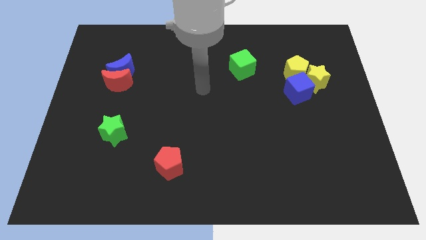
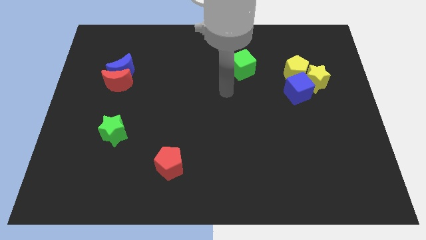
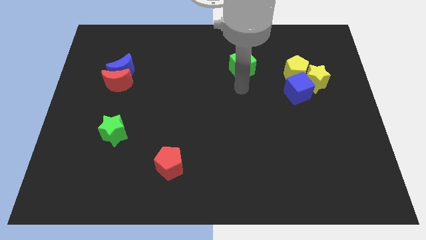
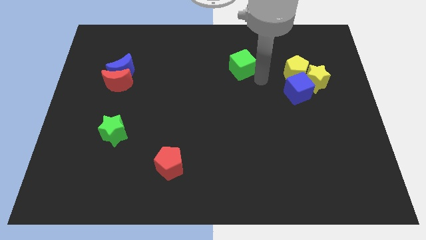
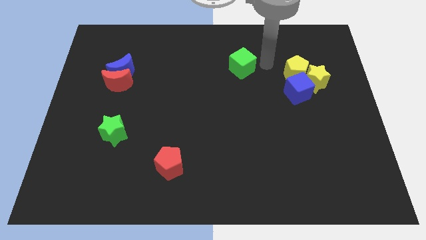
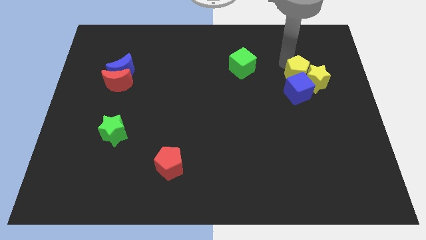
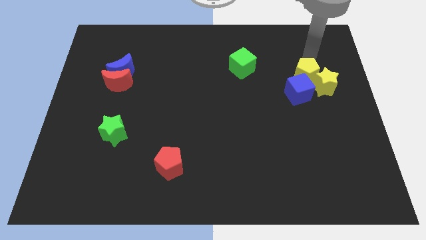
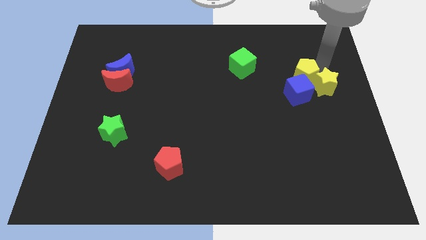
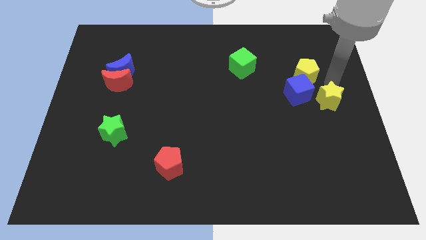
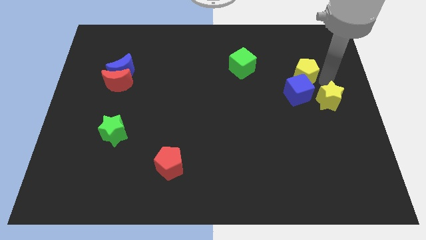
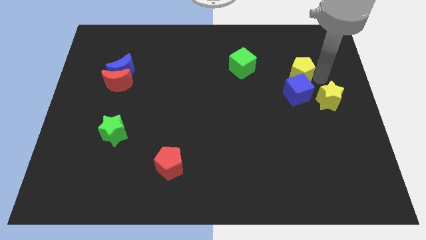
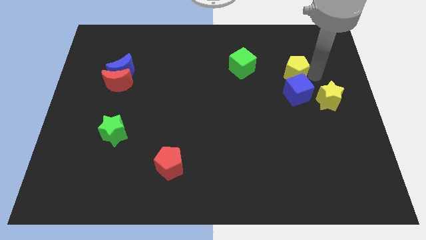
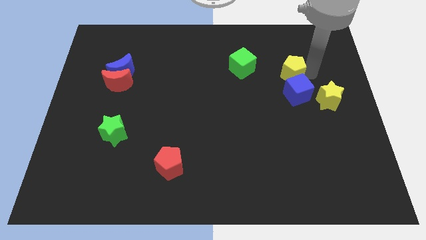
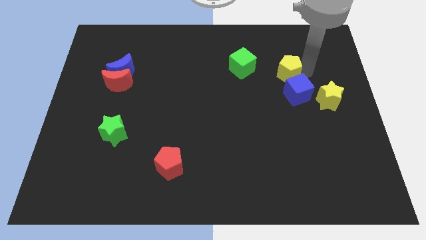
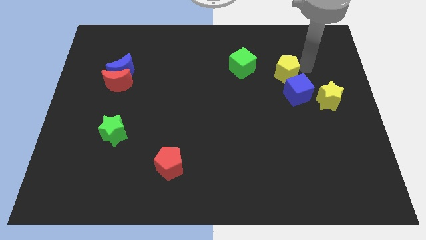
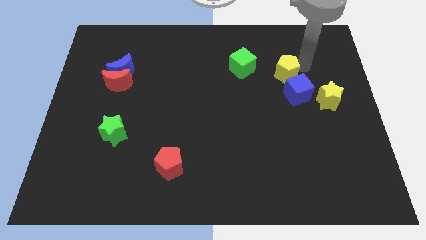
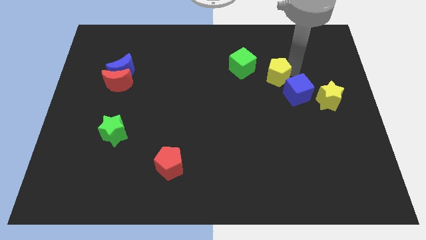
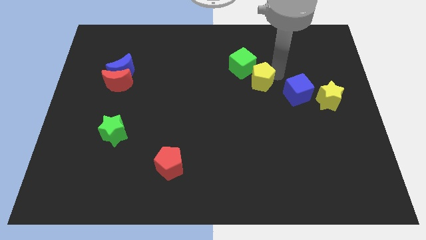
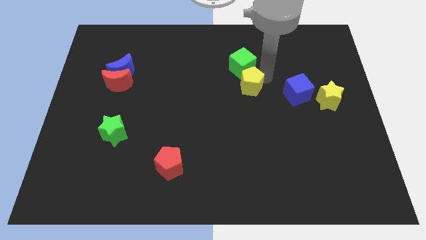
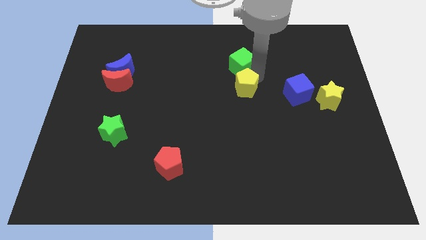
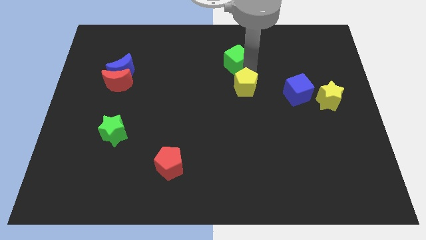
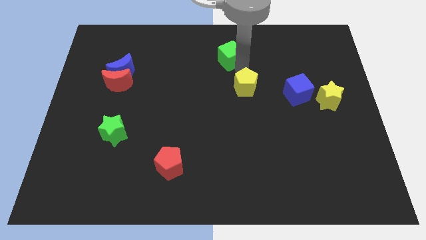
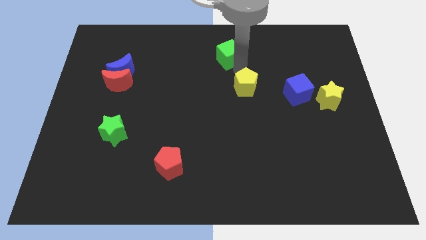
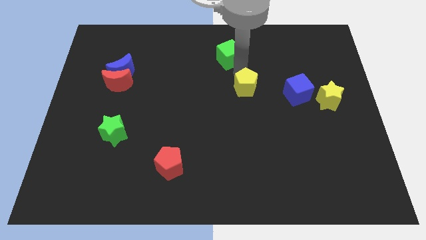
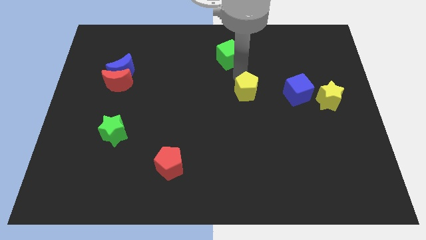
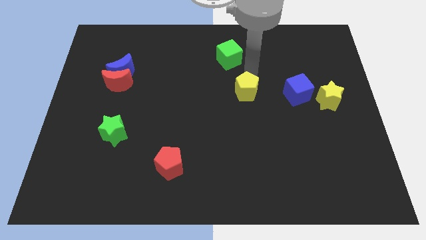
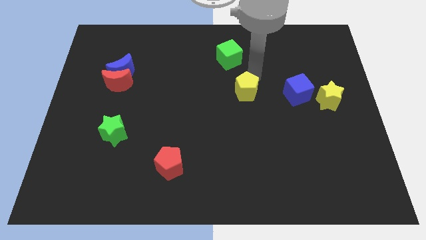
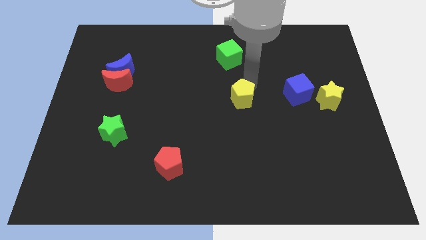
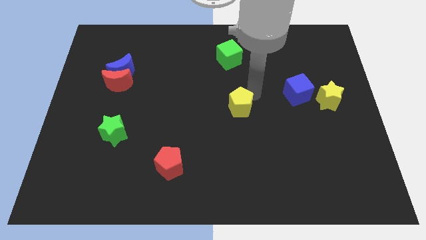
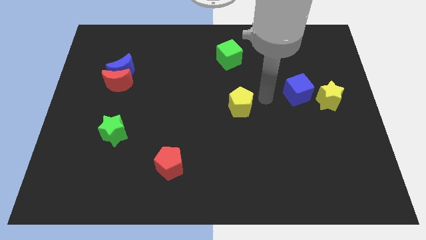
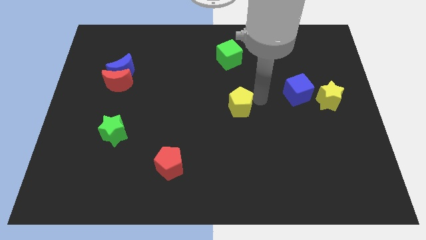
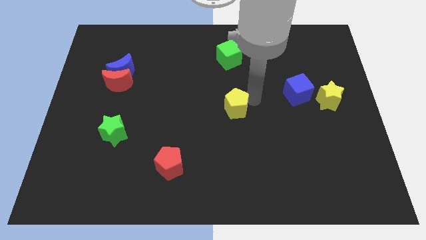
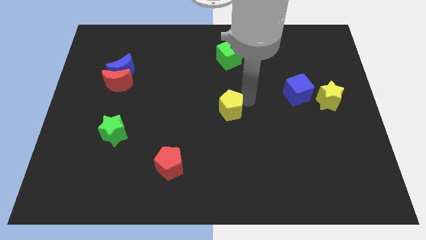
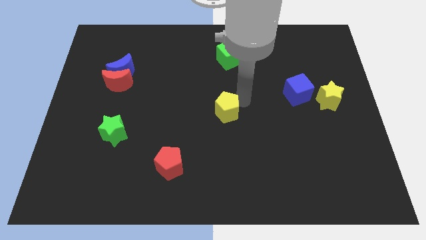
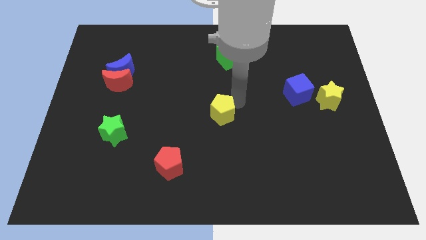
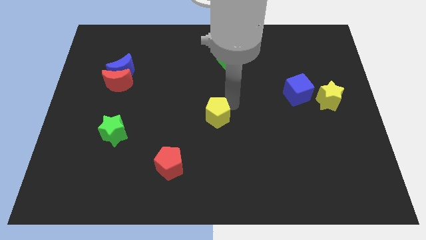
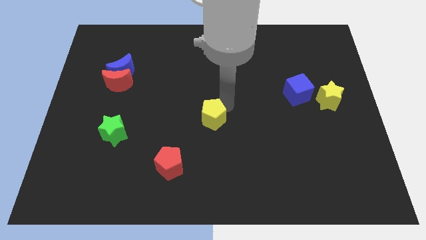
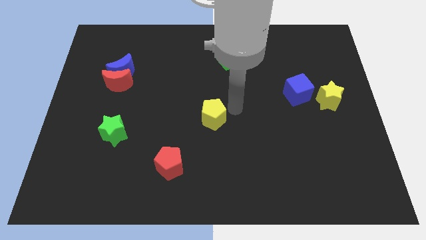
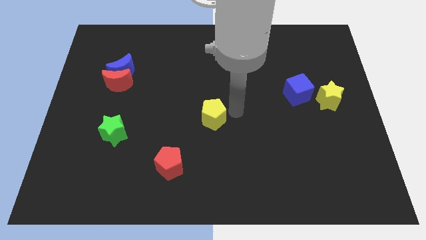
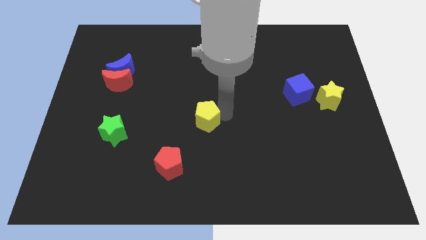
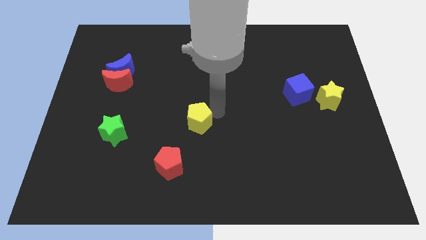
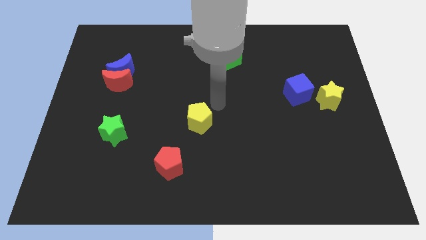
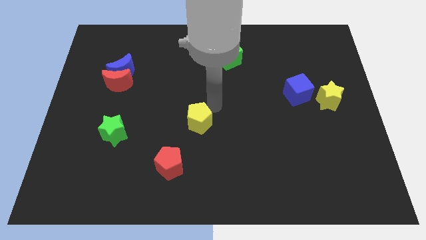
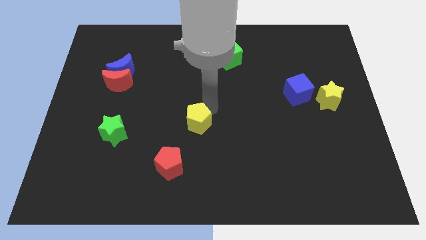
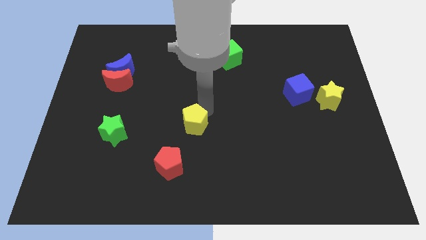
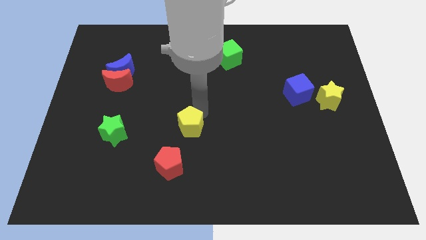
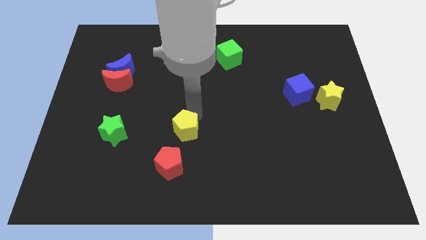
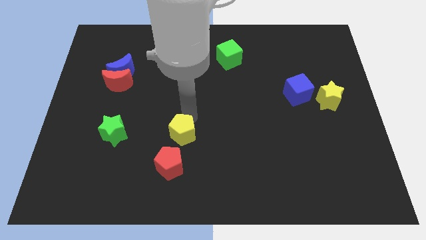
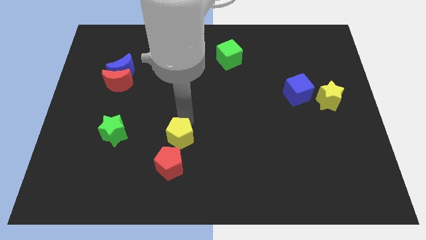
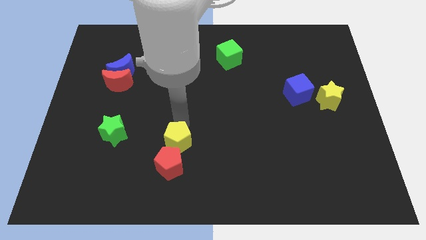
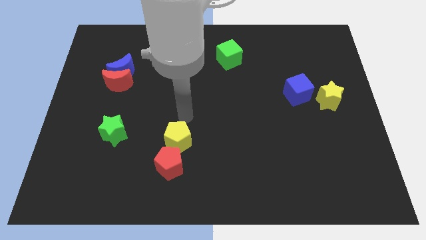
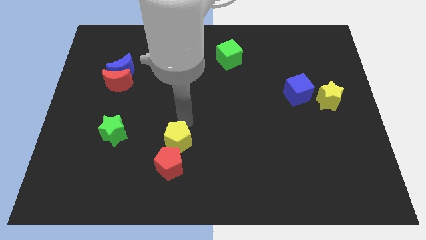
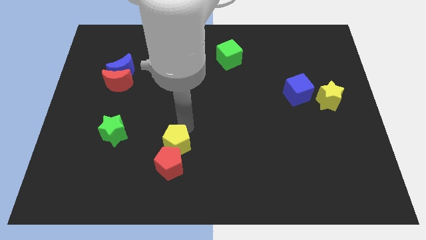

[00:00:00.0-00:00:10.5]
move the yellow pentagon towards the red pentagon

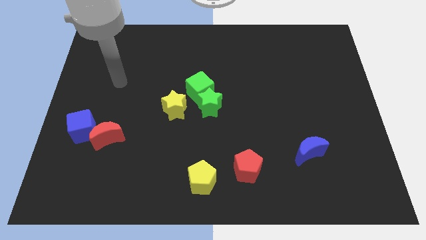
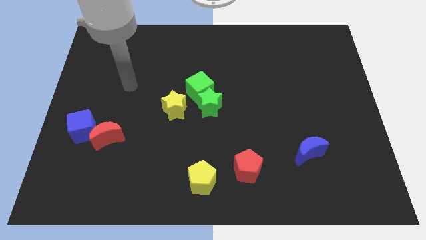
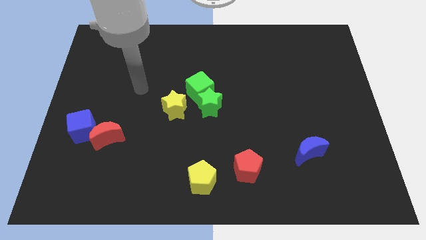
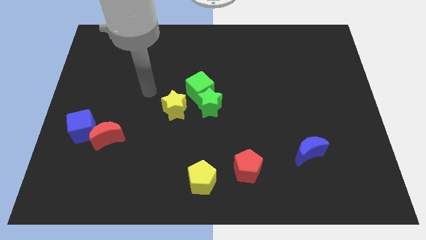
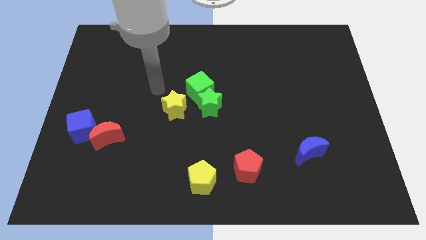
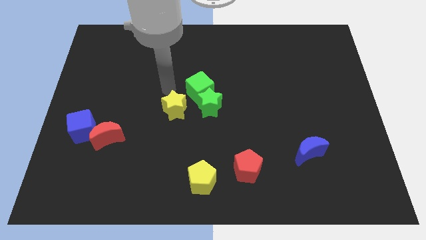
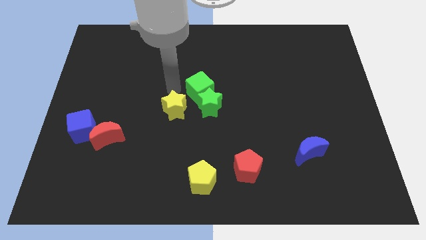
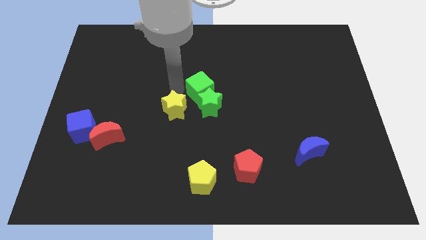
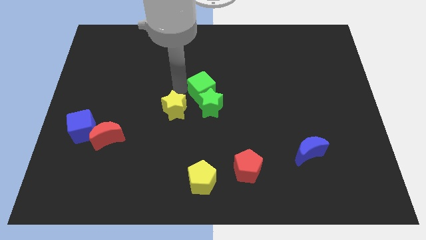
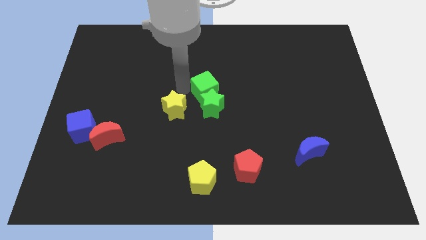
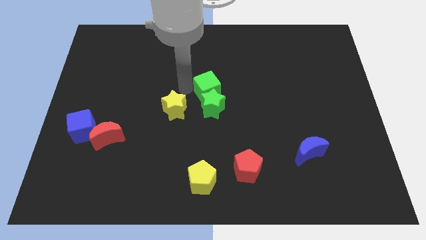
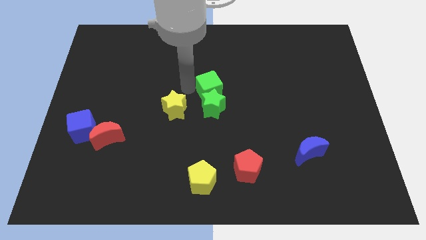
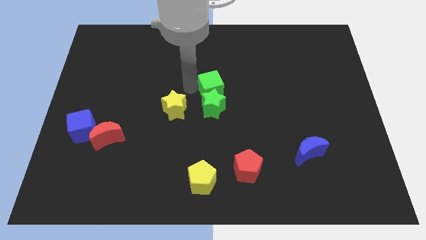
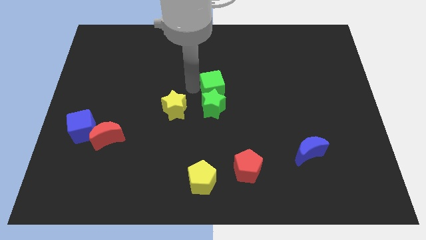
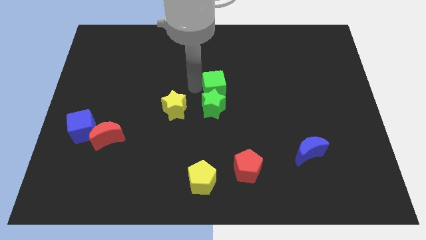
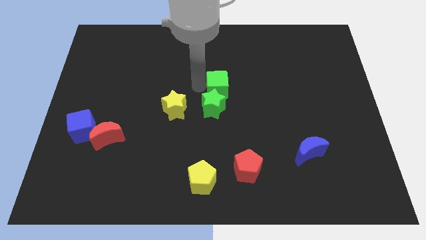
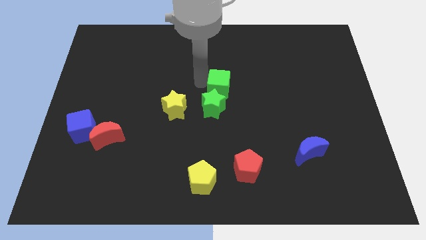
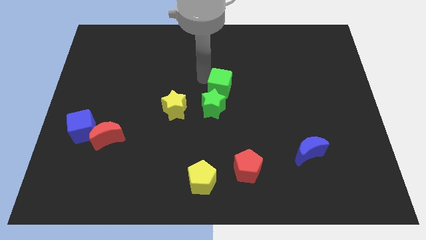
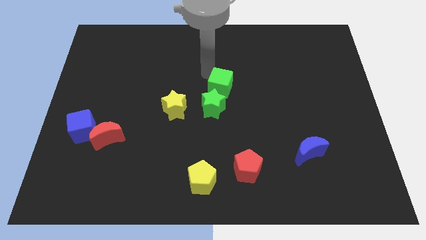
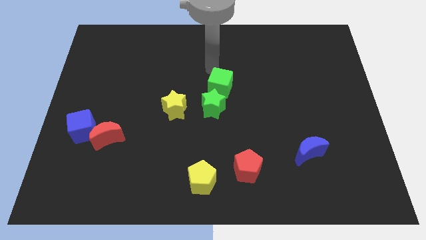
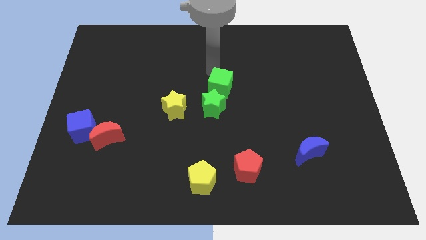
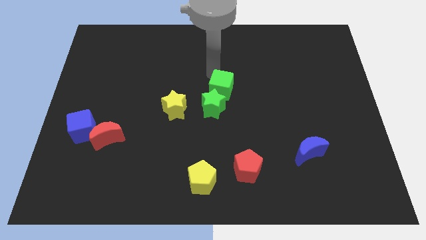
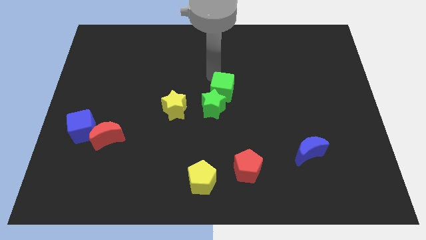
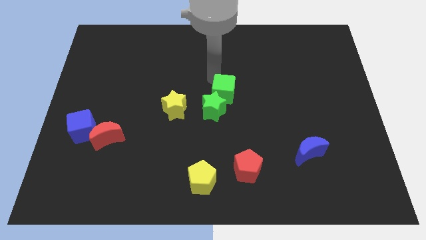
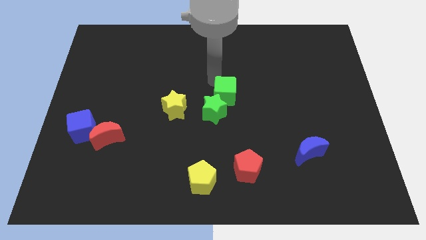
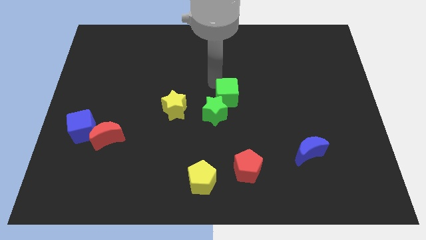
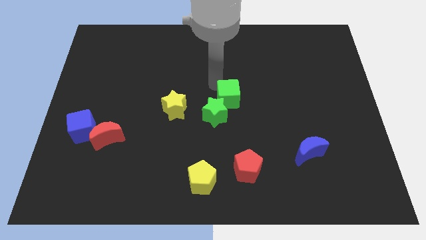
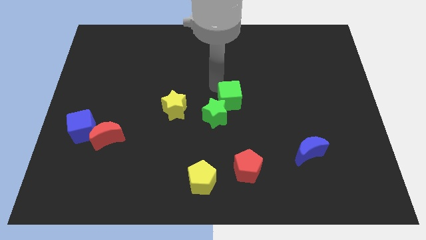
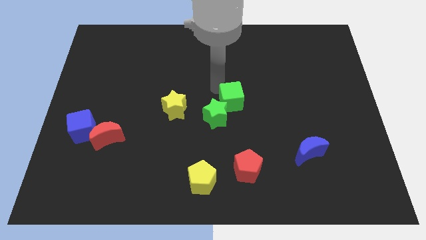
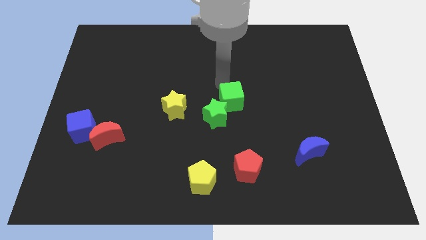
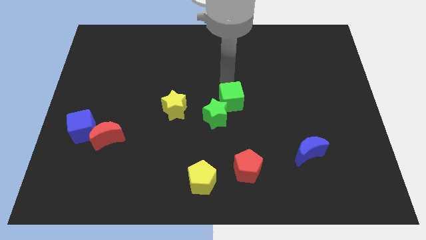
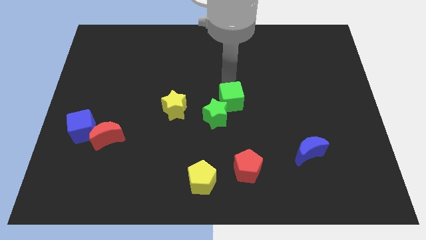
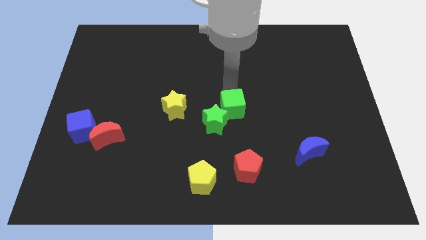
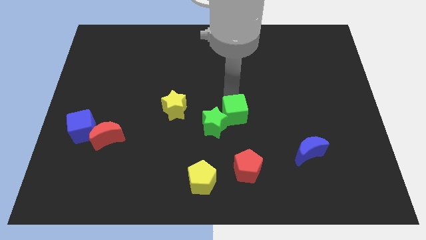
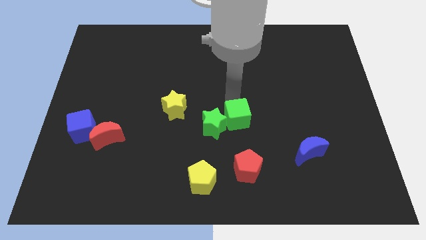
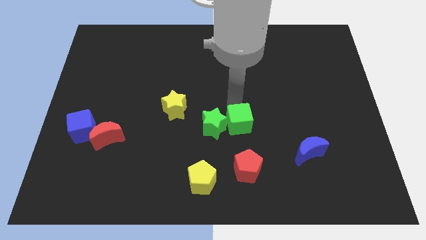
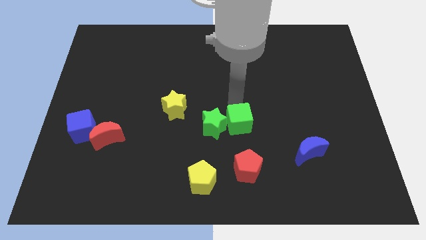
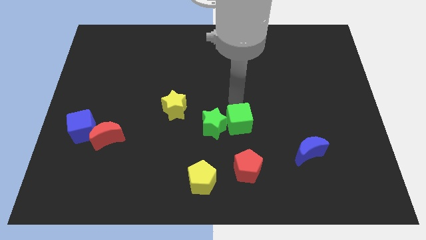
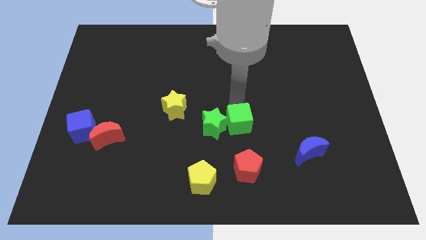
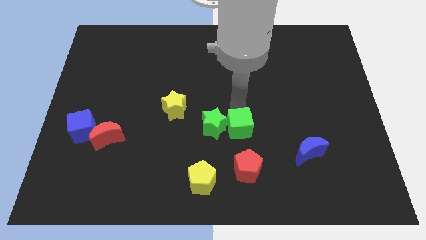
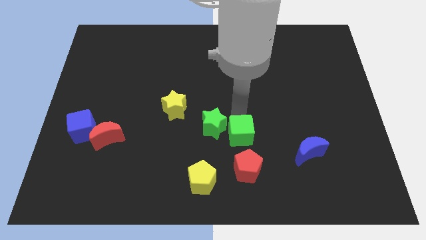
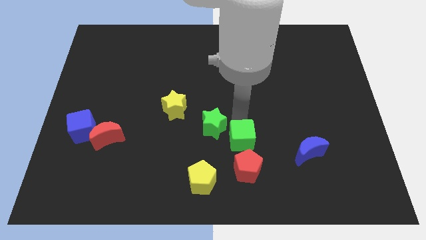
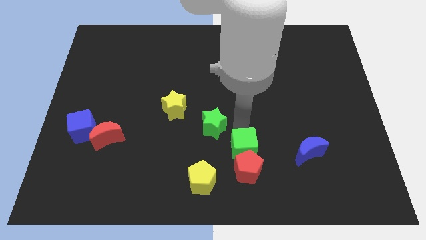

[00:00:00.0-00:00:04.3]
put the green cube towards the red pentagon
